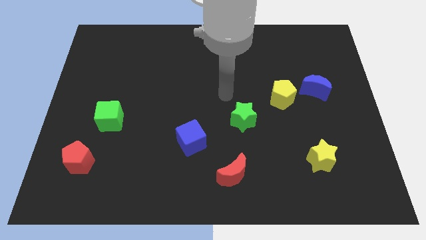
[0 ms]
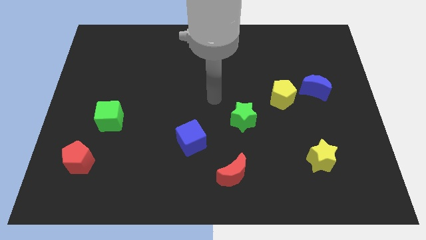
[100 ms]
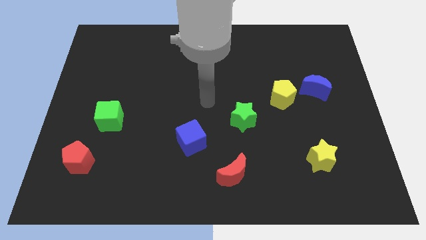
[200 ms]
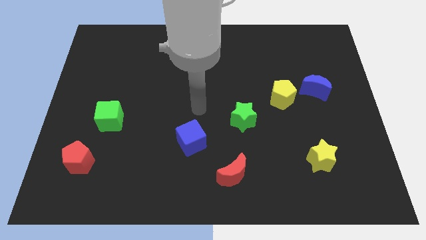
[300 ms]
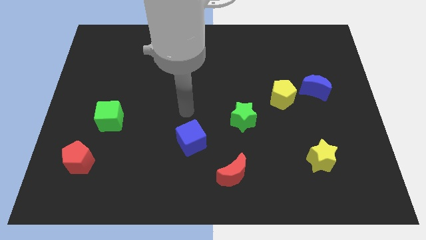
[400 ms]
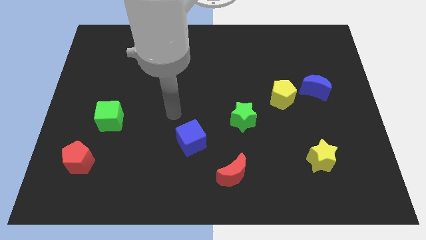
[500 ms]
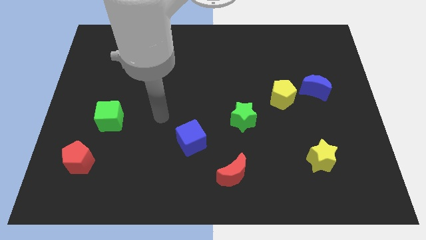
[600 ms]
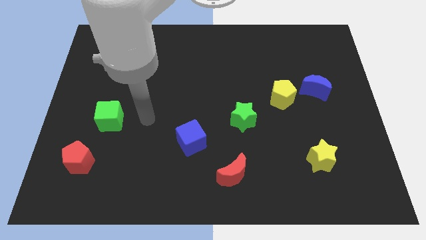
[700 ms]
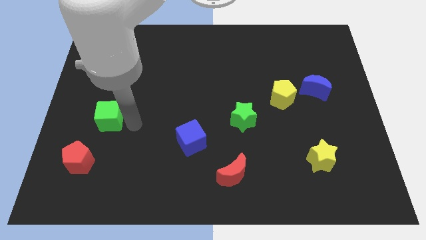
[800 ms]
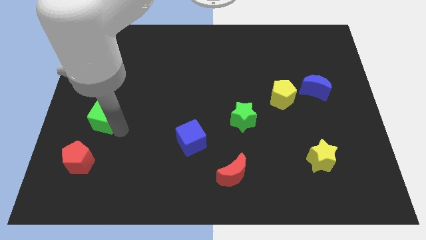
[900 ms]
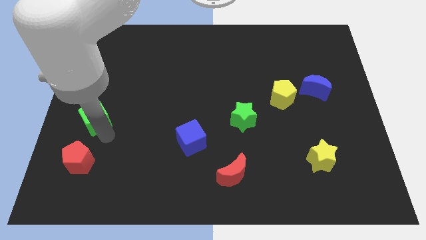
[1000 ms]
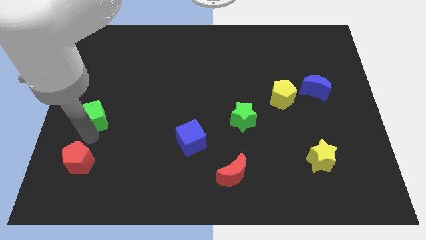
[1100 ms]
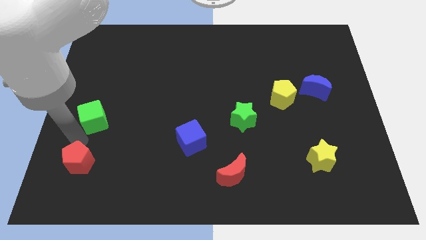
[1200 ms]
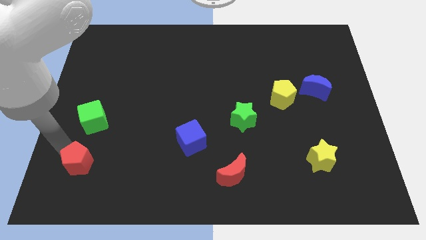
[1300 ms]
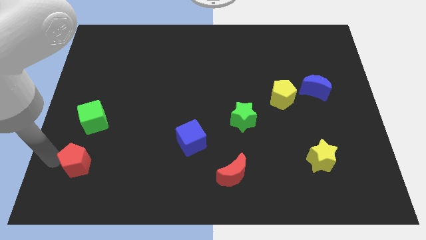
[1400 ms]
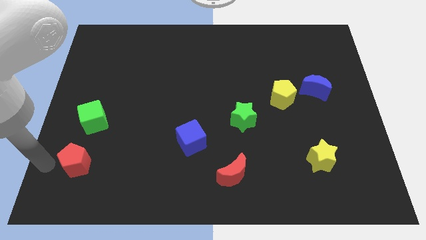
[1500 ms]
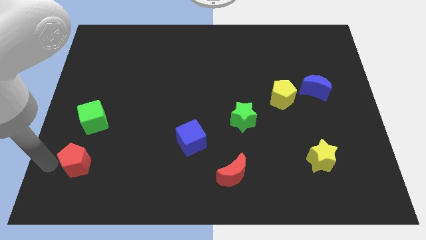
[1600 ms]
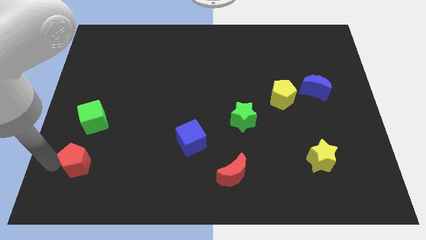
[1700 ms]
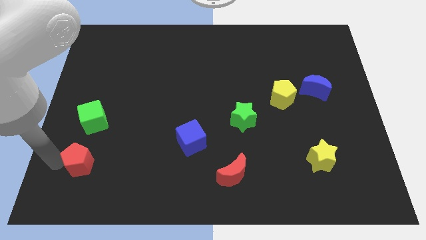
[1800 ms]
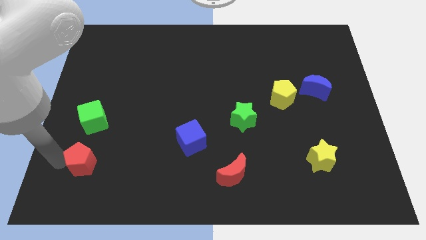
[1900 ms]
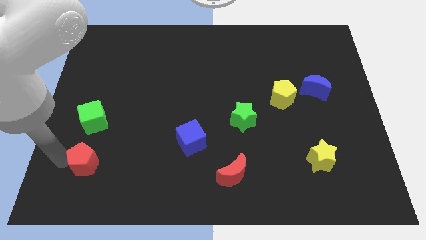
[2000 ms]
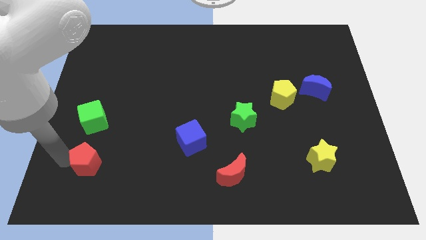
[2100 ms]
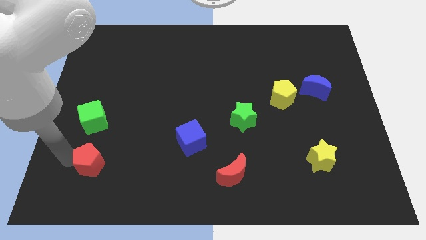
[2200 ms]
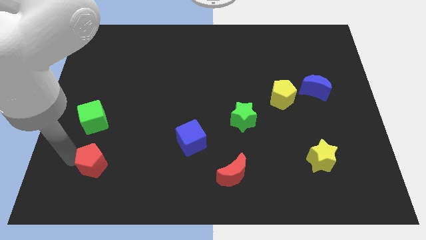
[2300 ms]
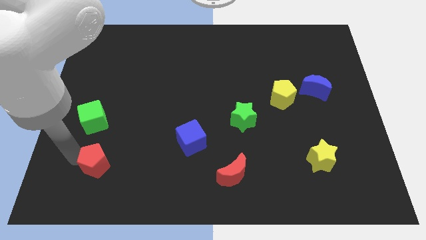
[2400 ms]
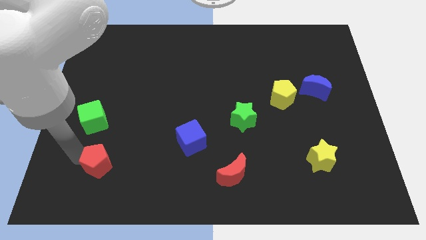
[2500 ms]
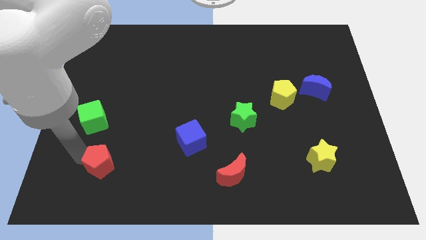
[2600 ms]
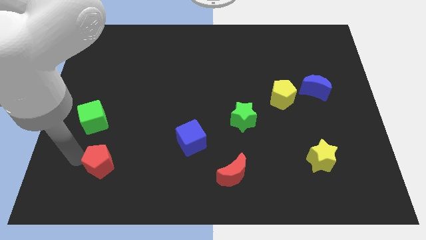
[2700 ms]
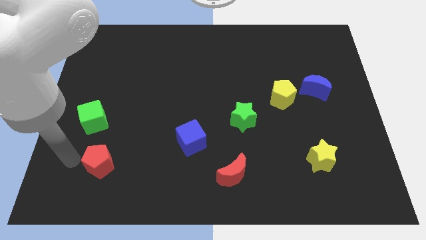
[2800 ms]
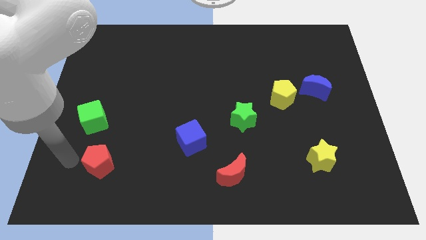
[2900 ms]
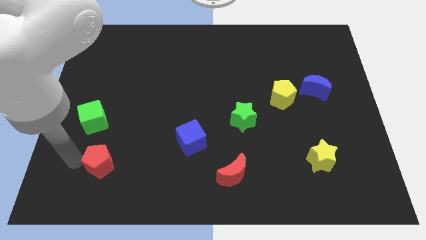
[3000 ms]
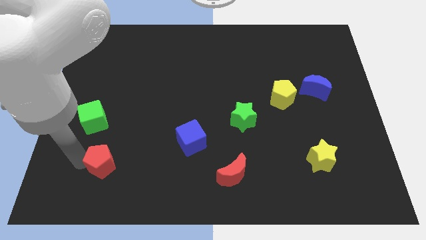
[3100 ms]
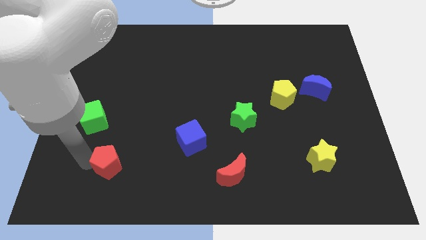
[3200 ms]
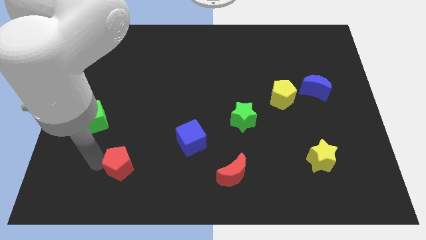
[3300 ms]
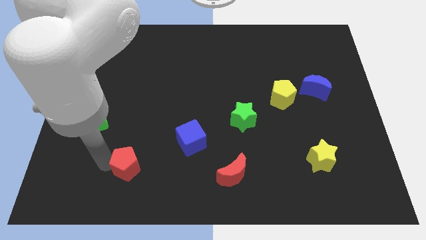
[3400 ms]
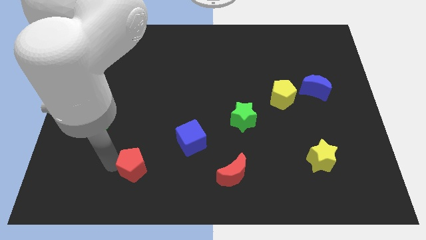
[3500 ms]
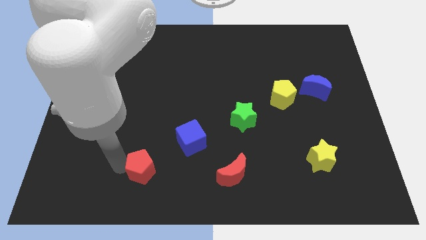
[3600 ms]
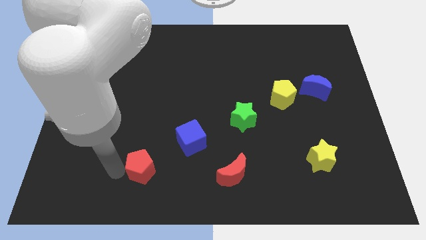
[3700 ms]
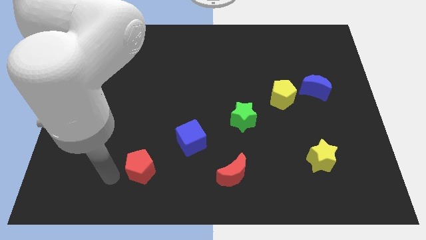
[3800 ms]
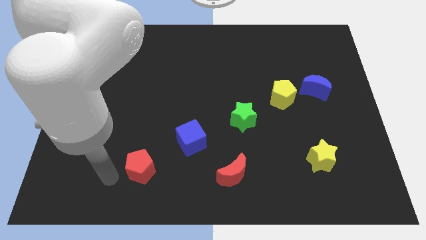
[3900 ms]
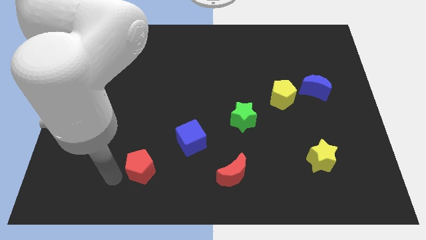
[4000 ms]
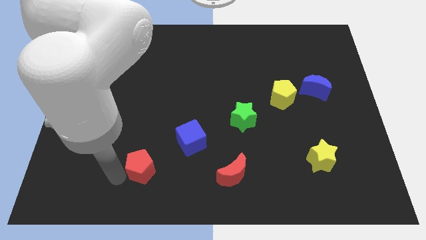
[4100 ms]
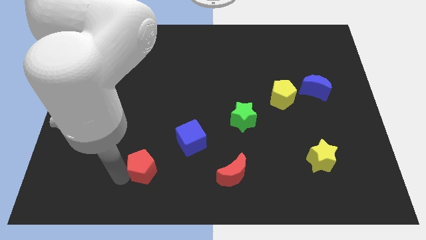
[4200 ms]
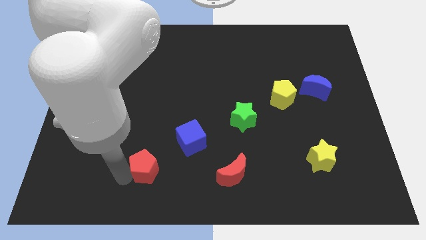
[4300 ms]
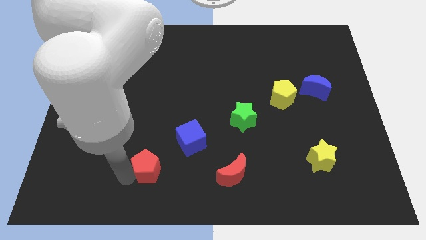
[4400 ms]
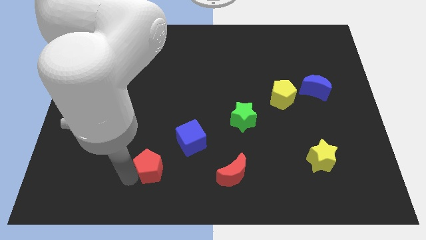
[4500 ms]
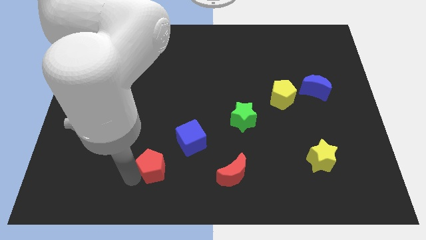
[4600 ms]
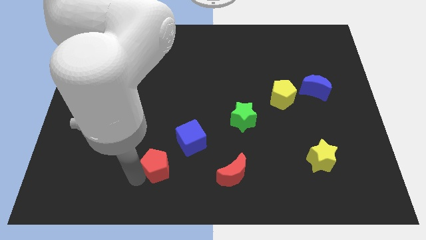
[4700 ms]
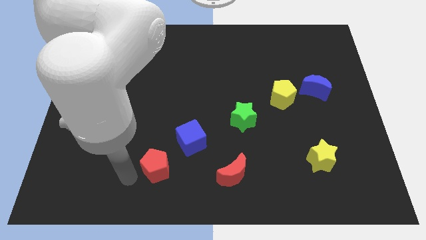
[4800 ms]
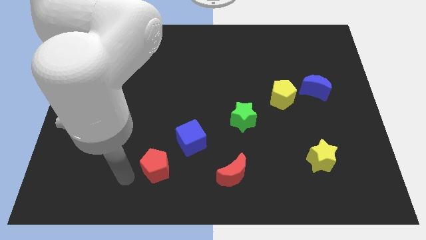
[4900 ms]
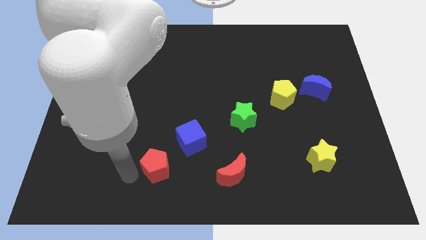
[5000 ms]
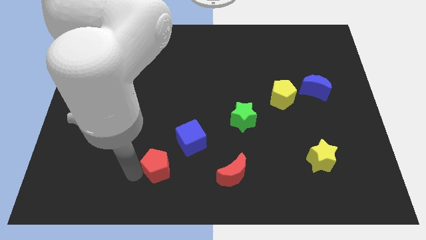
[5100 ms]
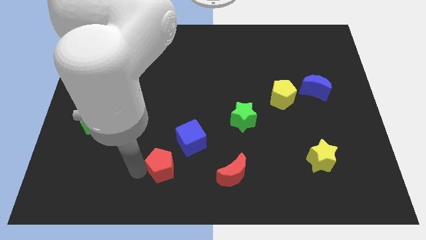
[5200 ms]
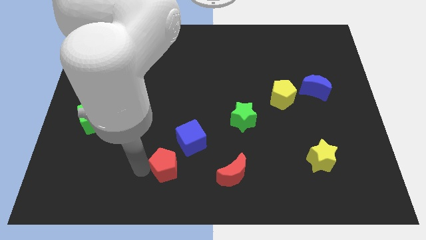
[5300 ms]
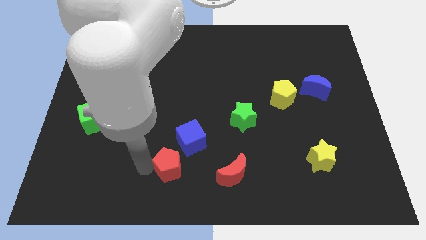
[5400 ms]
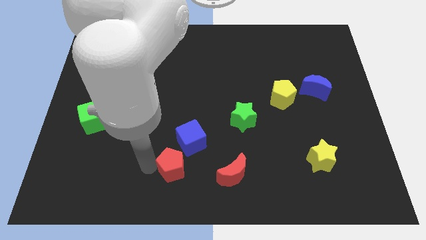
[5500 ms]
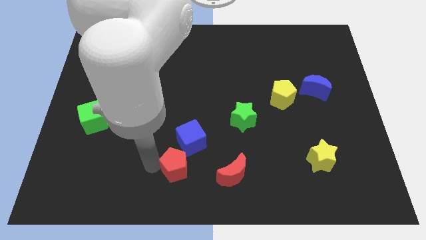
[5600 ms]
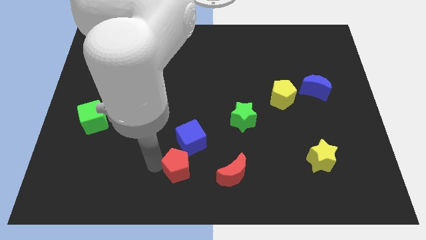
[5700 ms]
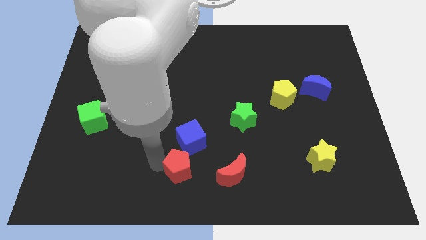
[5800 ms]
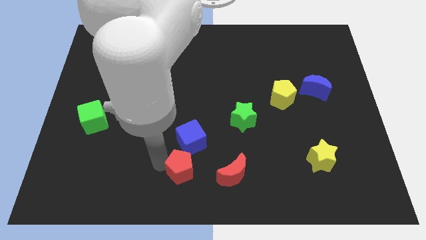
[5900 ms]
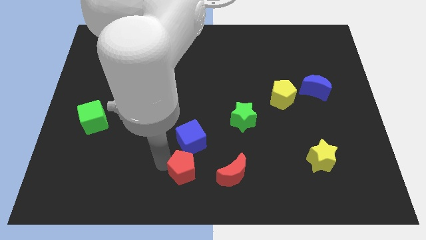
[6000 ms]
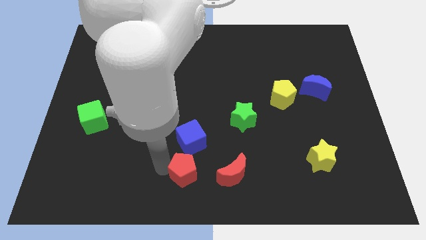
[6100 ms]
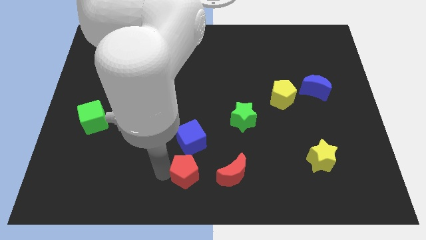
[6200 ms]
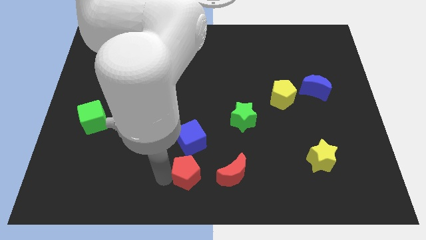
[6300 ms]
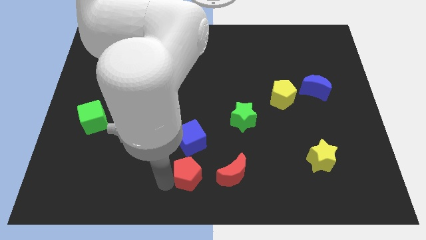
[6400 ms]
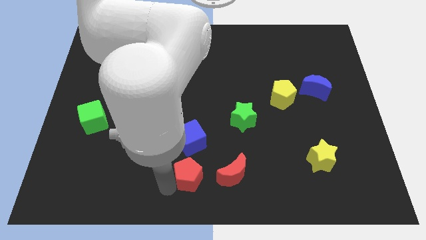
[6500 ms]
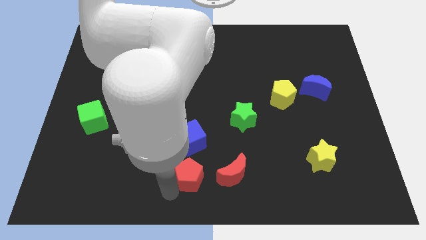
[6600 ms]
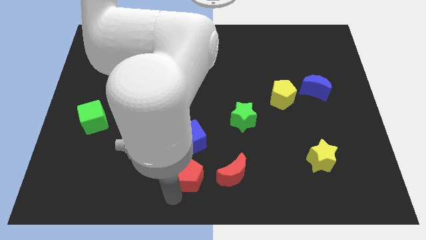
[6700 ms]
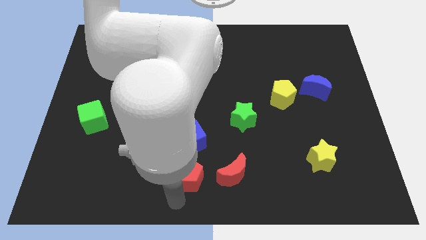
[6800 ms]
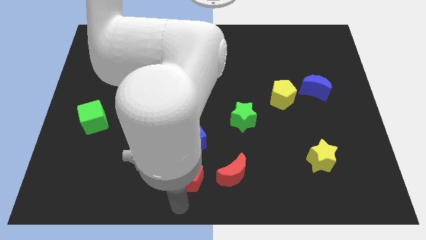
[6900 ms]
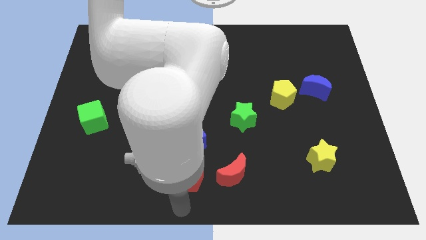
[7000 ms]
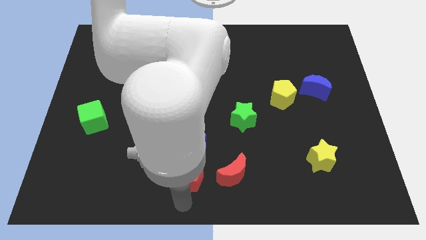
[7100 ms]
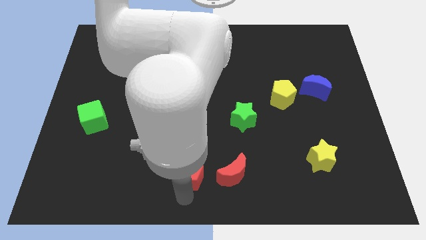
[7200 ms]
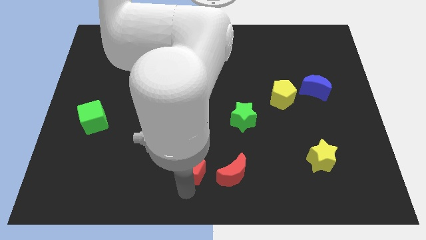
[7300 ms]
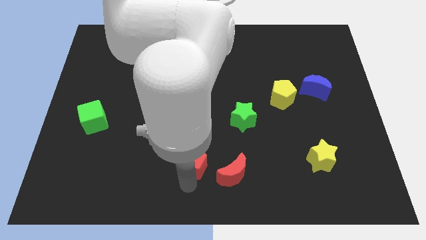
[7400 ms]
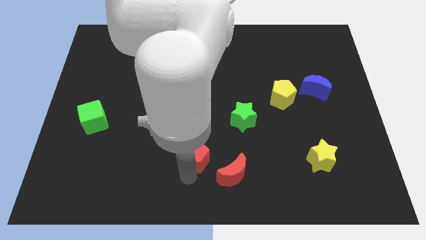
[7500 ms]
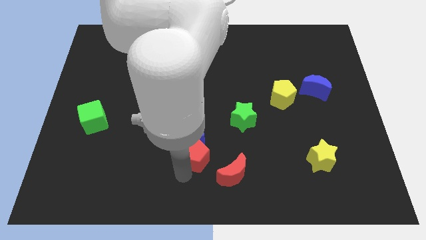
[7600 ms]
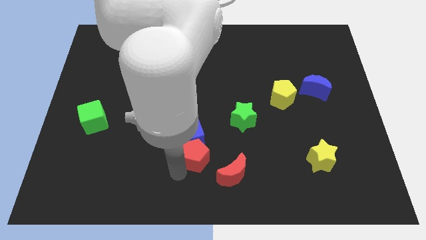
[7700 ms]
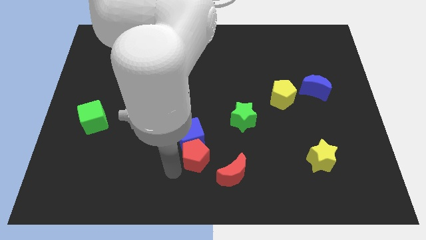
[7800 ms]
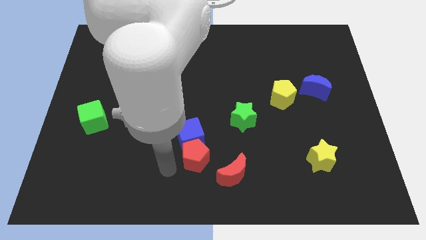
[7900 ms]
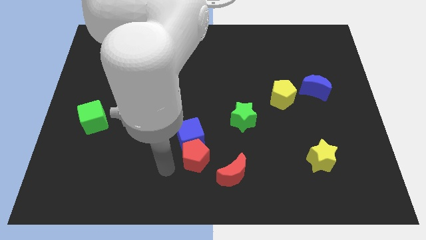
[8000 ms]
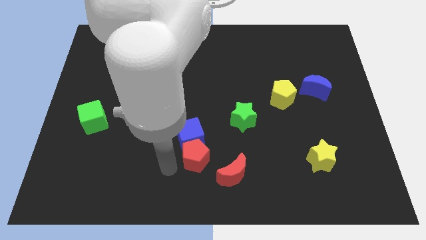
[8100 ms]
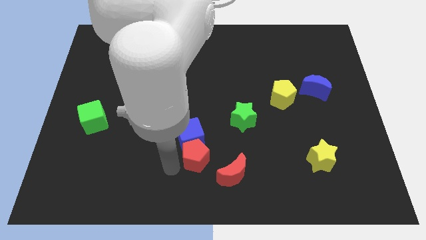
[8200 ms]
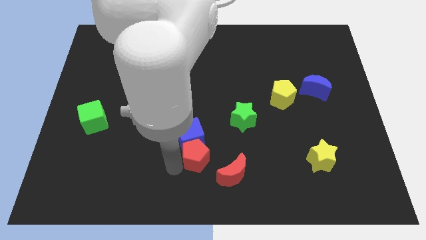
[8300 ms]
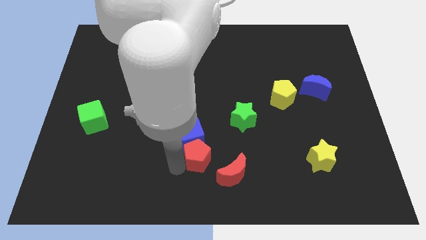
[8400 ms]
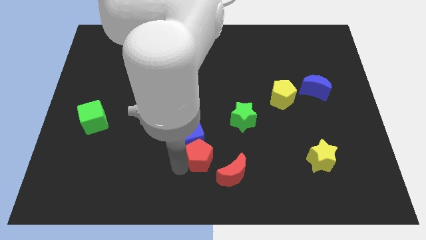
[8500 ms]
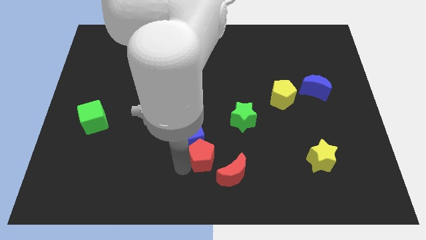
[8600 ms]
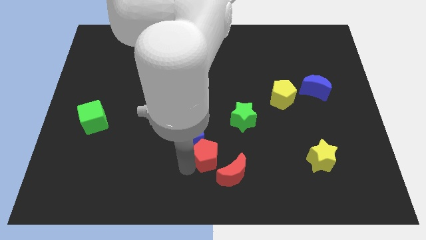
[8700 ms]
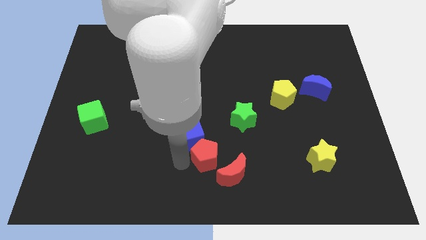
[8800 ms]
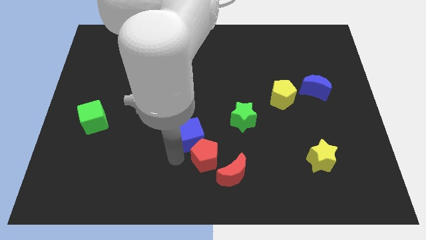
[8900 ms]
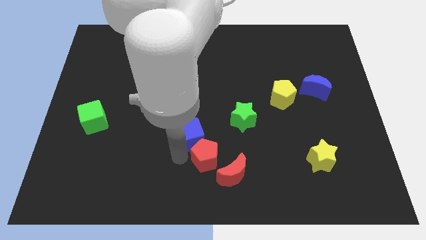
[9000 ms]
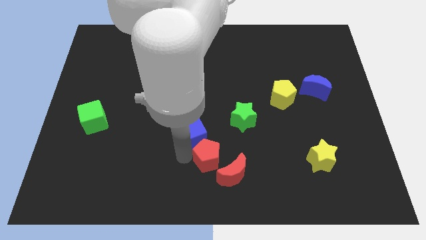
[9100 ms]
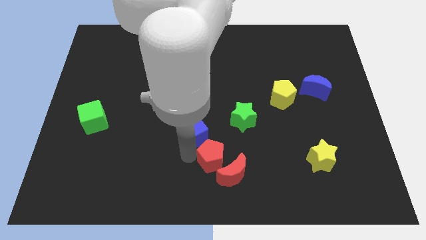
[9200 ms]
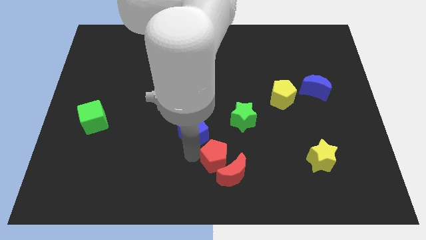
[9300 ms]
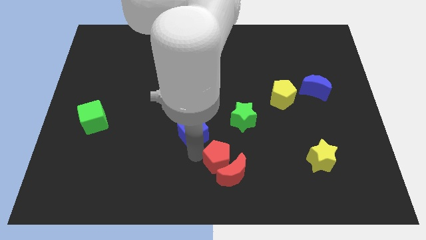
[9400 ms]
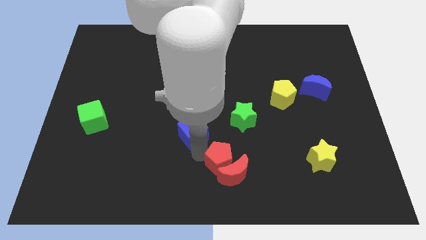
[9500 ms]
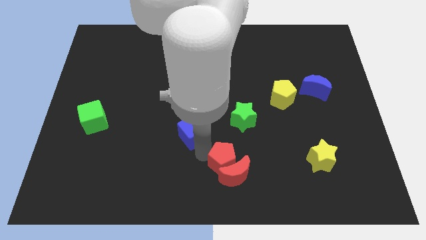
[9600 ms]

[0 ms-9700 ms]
put the red pentagon to the bottom side of the green star
